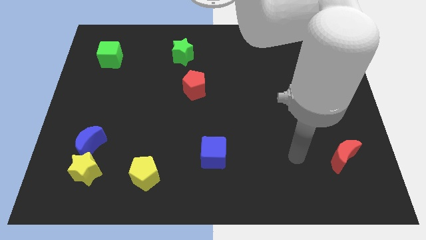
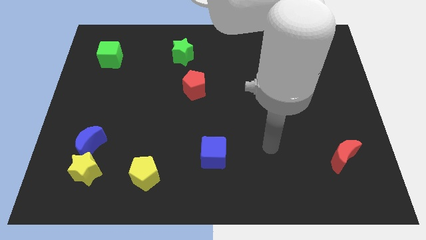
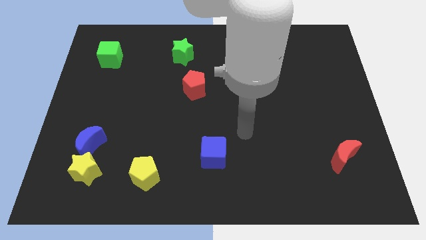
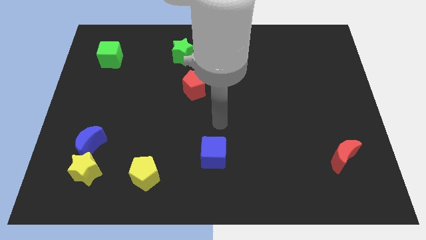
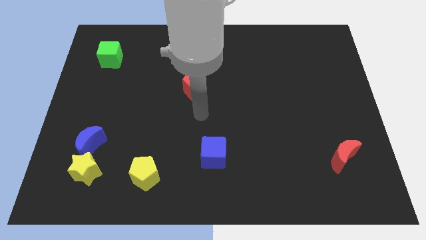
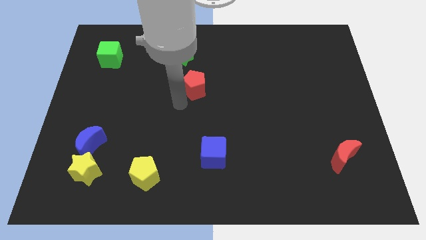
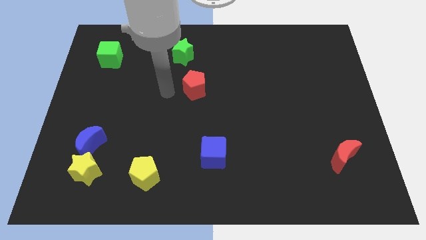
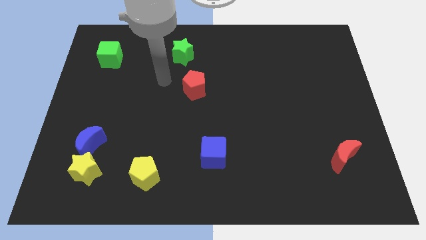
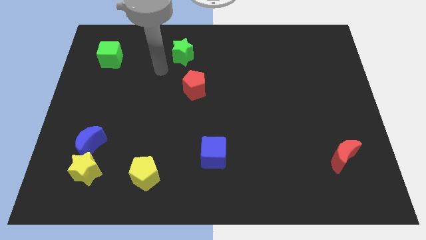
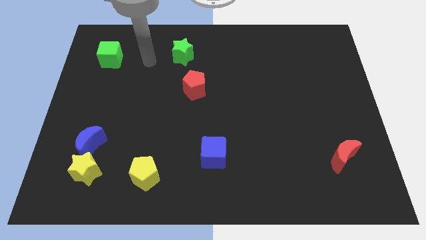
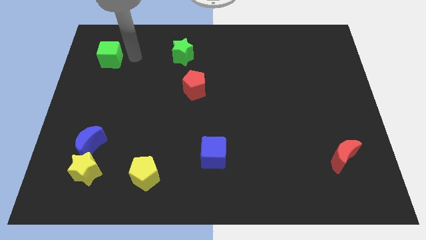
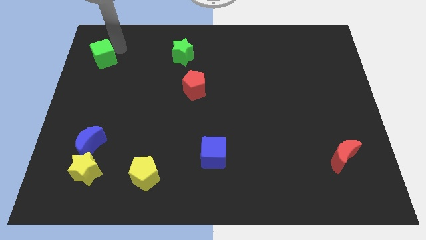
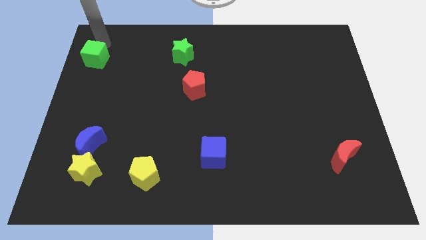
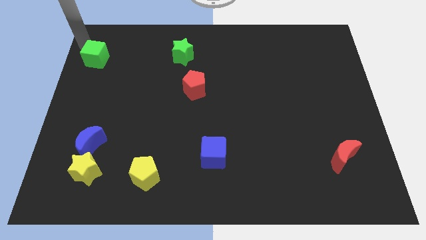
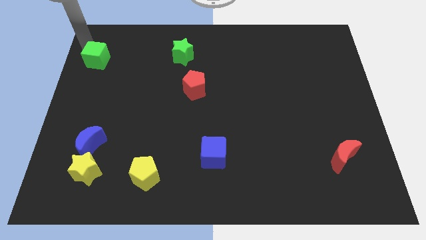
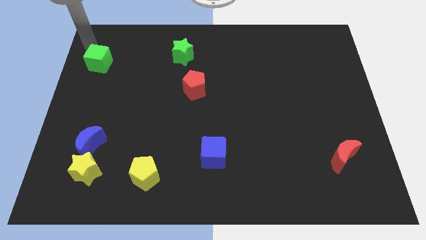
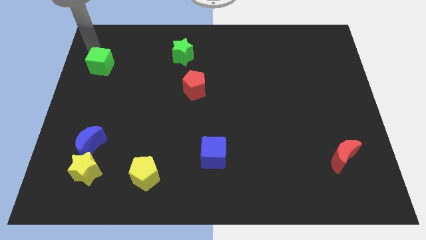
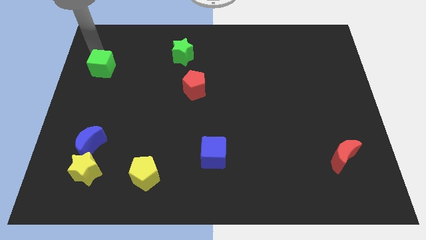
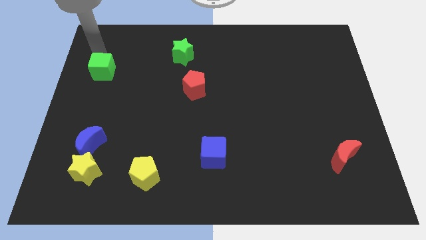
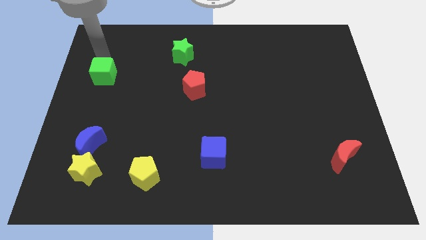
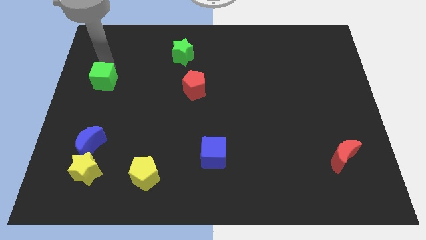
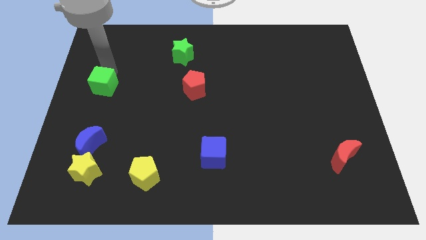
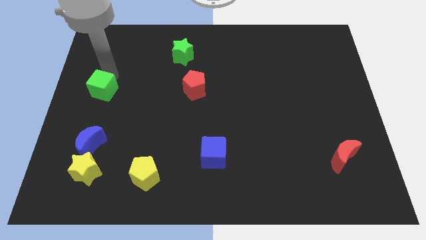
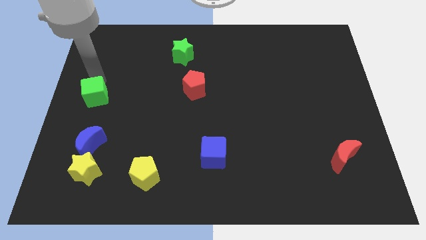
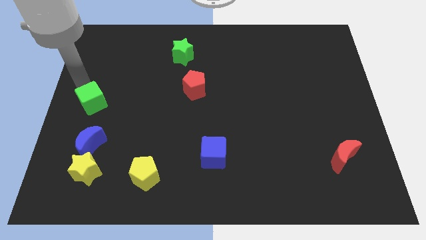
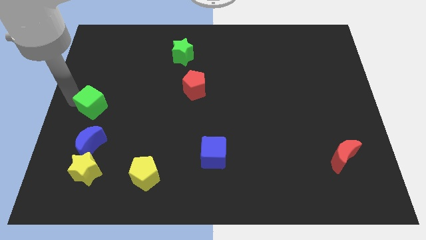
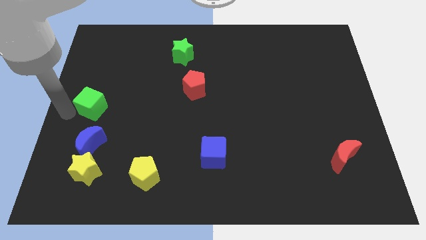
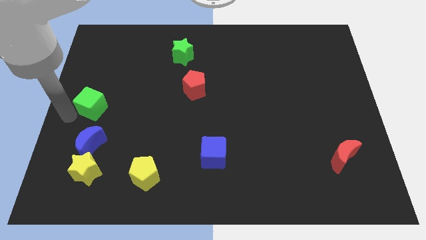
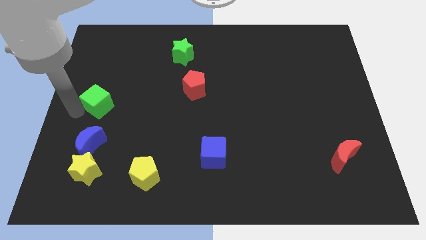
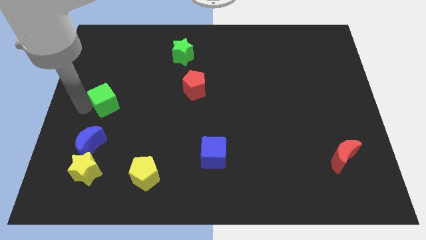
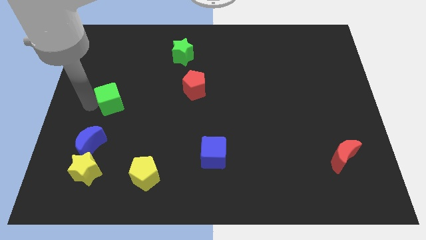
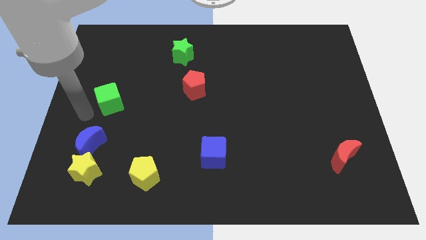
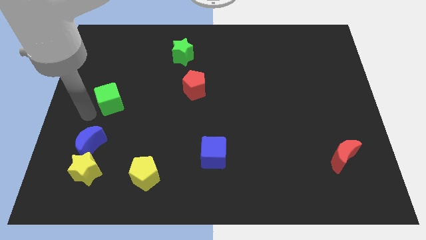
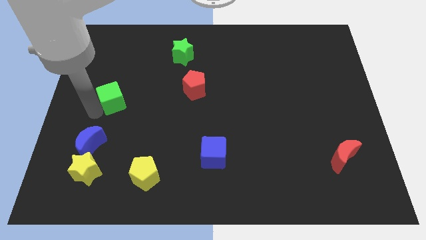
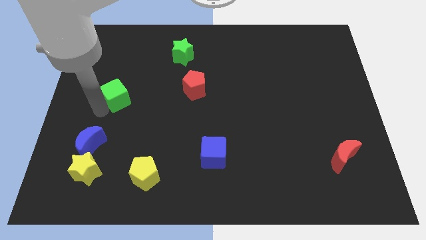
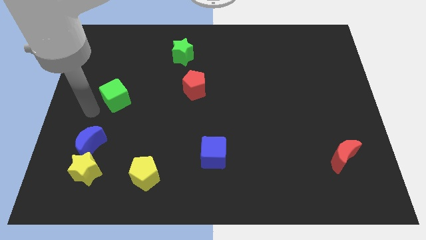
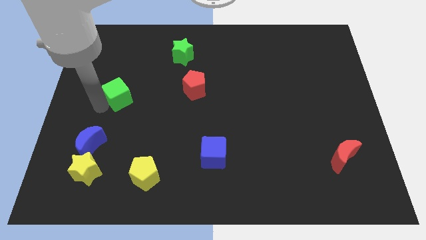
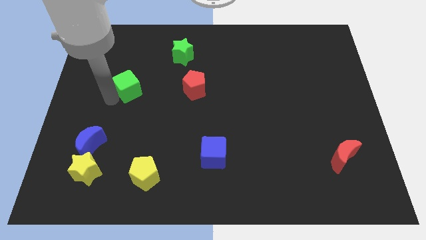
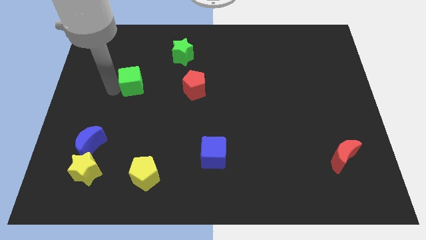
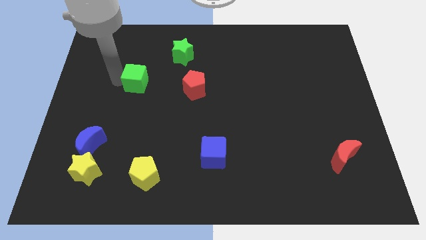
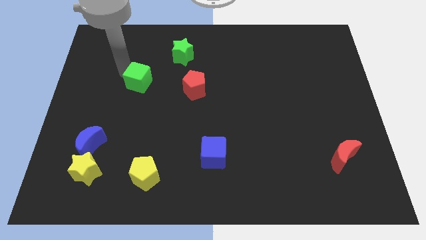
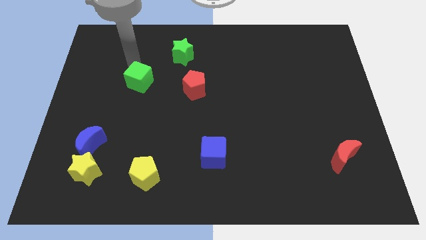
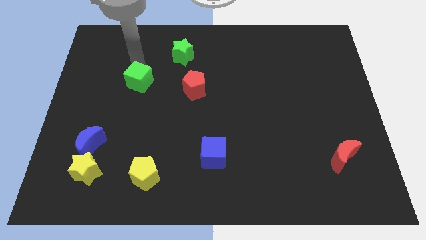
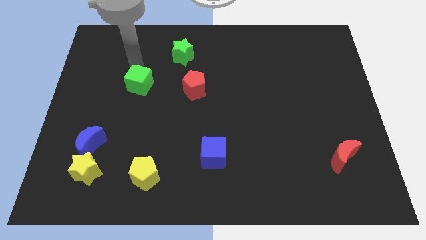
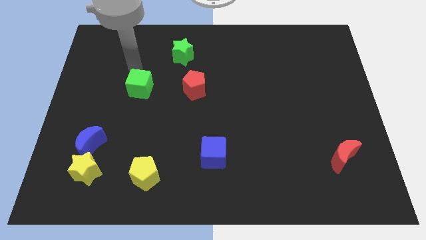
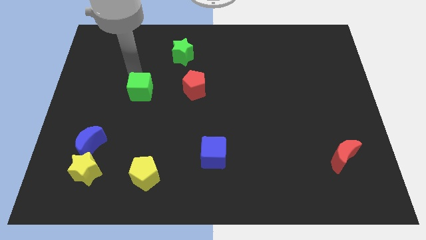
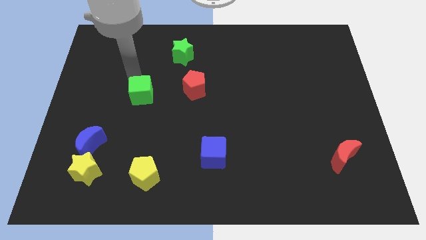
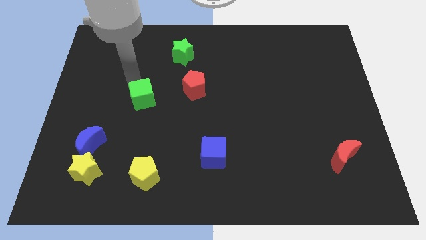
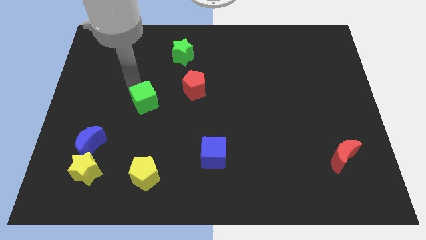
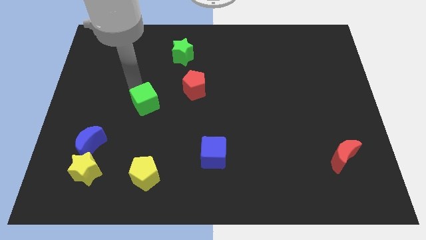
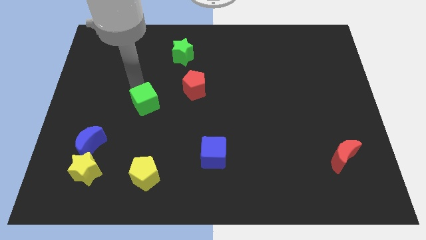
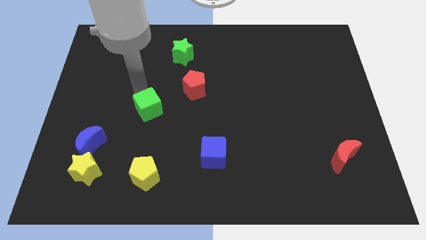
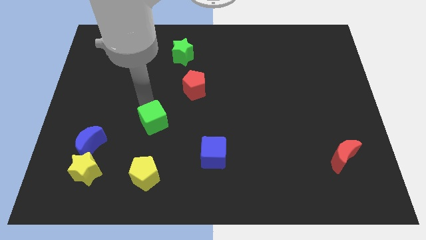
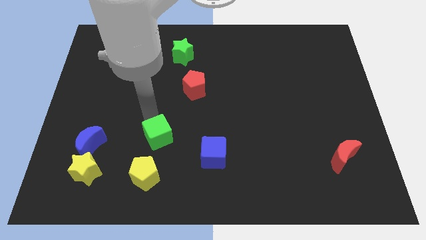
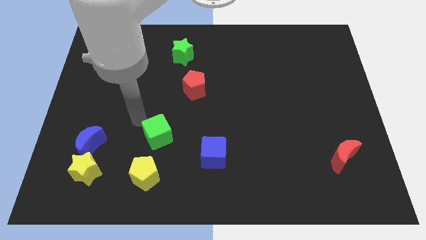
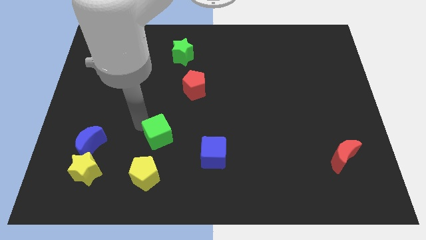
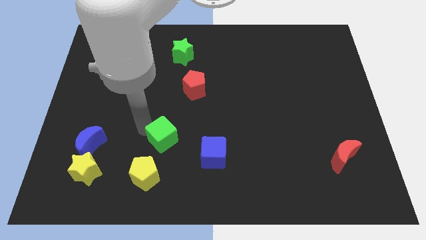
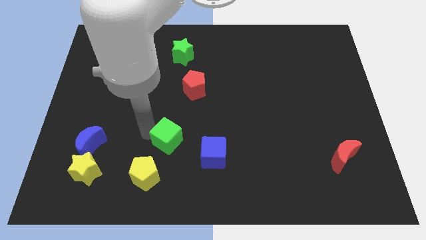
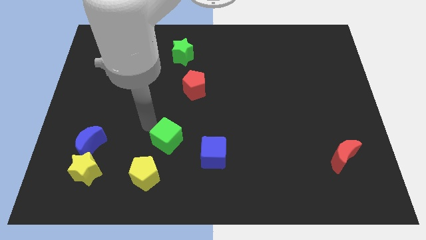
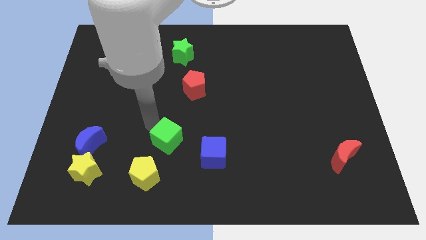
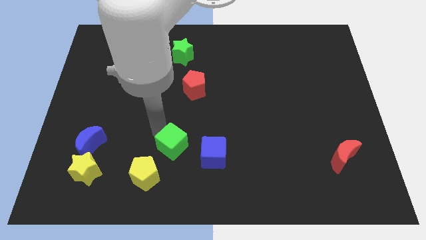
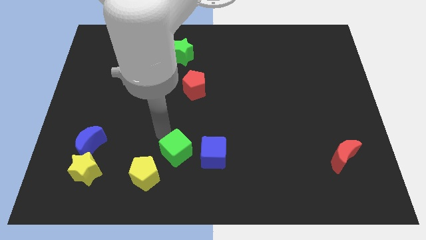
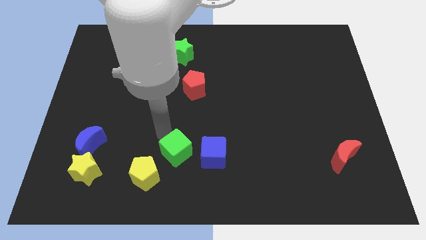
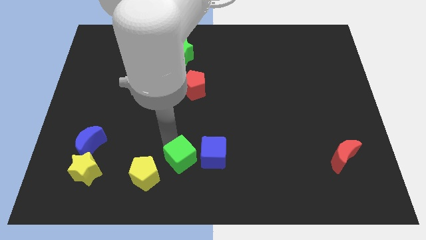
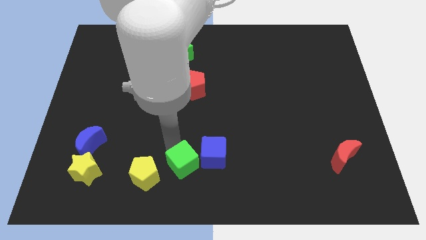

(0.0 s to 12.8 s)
push the green cube to the bottom side

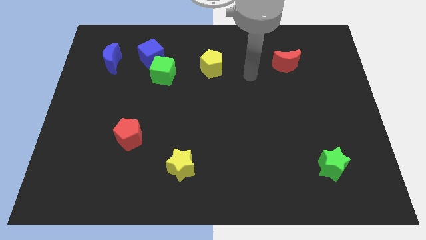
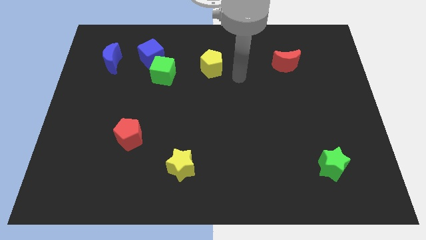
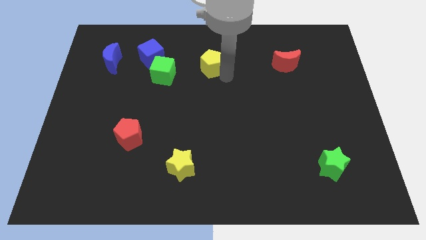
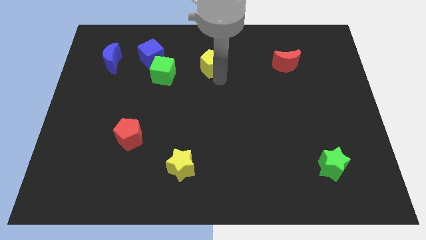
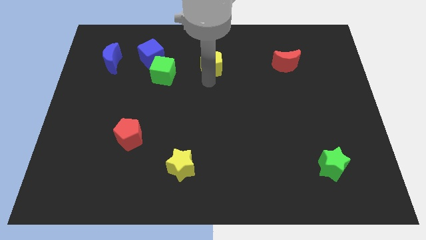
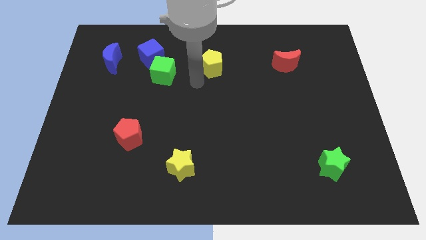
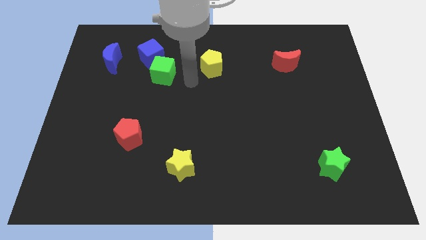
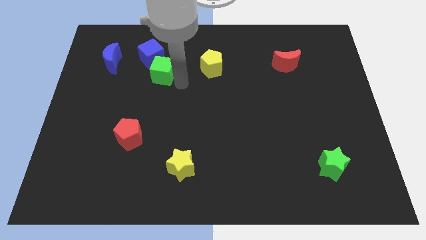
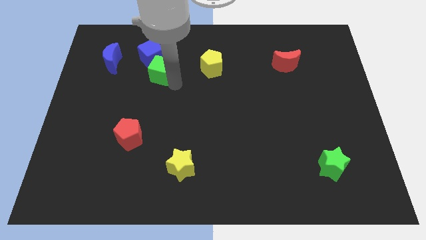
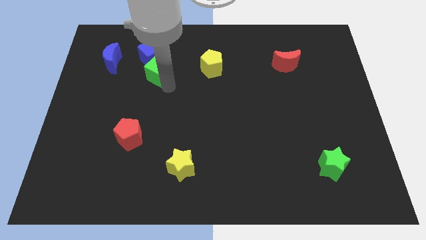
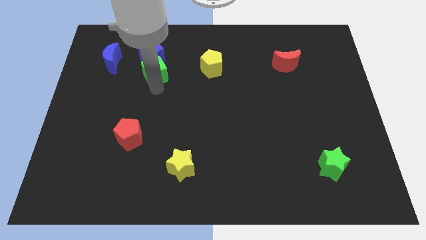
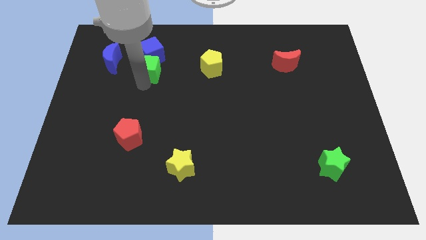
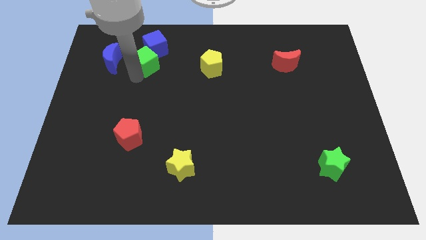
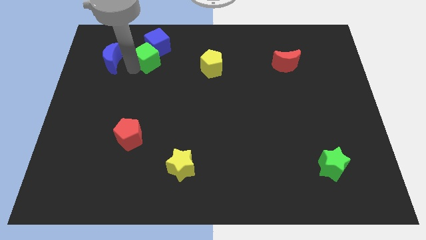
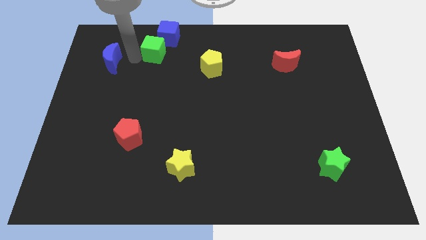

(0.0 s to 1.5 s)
move the blue cube to the towards your base
